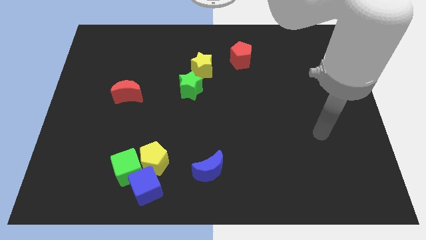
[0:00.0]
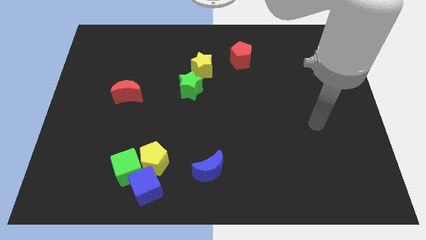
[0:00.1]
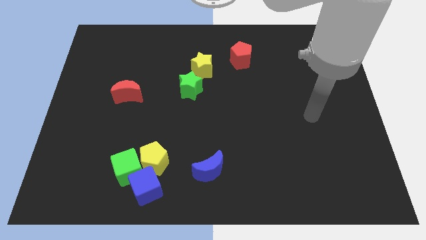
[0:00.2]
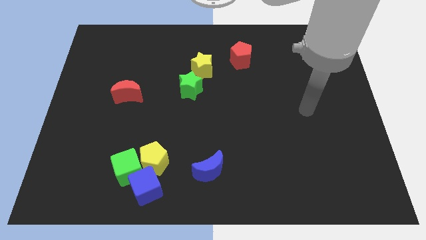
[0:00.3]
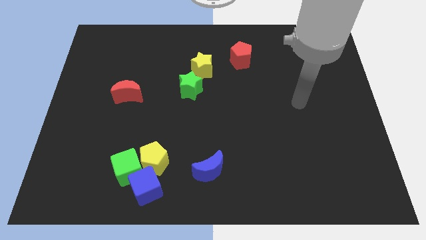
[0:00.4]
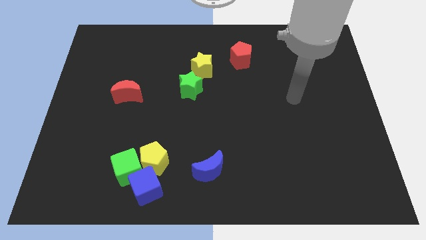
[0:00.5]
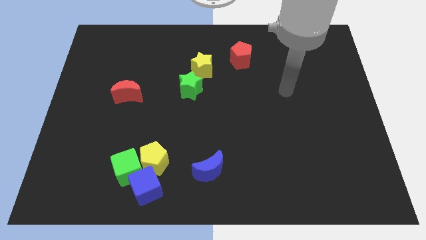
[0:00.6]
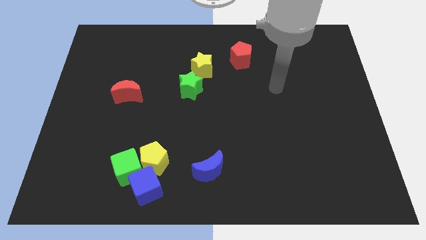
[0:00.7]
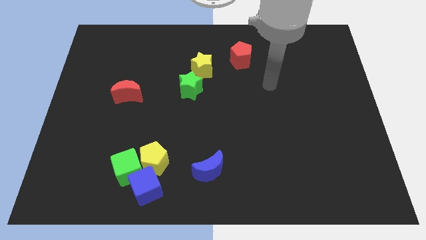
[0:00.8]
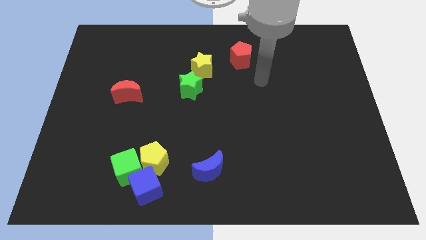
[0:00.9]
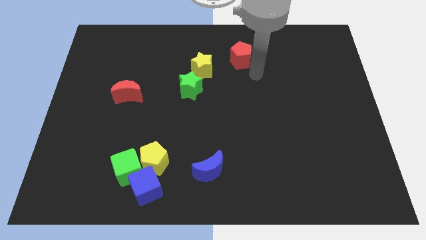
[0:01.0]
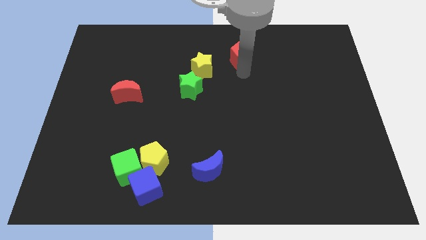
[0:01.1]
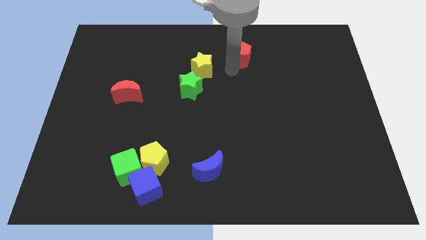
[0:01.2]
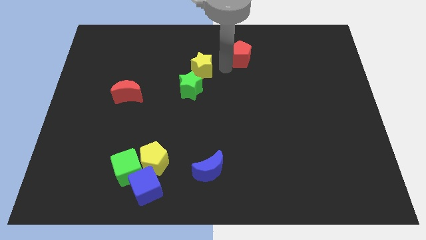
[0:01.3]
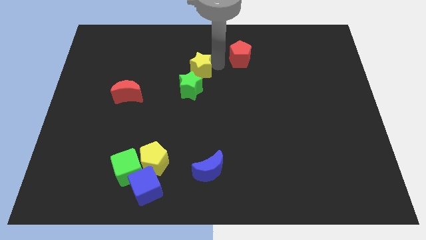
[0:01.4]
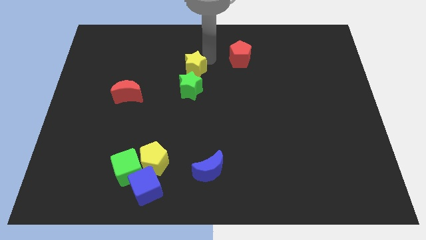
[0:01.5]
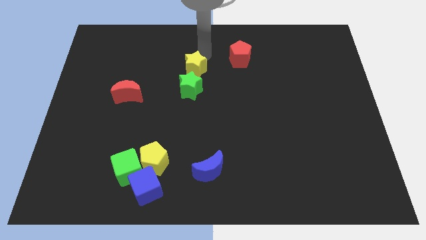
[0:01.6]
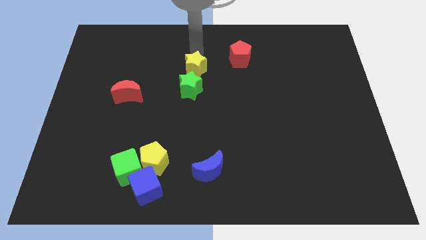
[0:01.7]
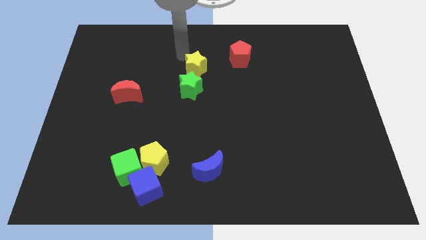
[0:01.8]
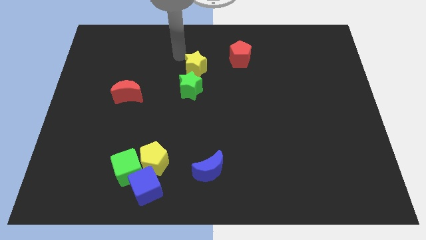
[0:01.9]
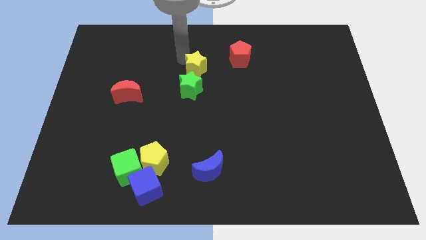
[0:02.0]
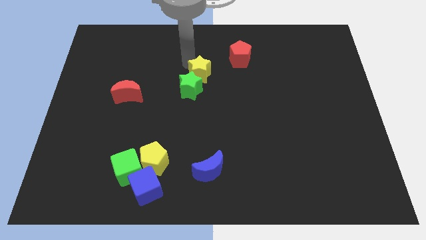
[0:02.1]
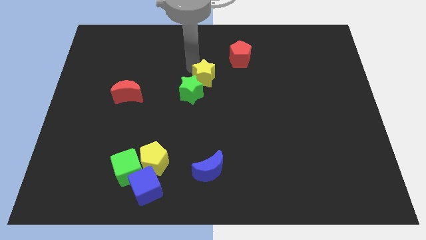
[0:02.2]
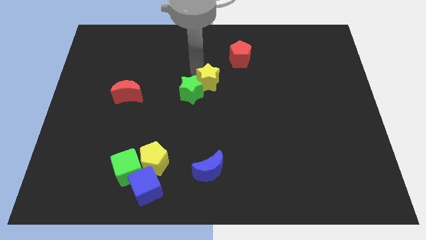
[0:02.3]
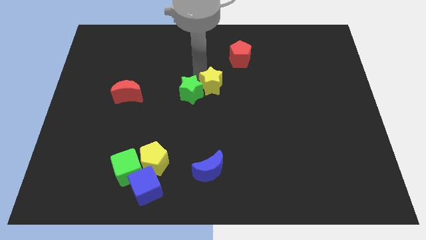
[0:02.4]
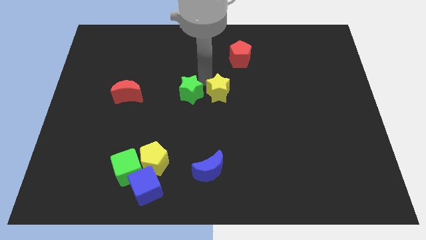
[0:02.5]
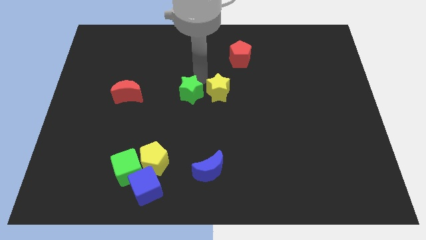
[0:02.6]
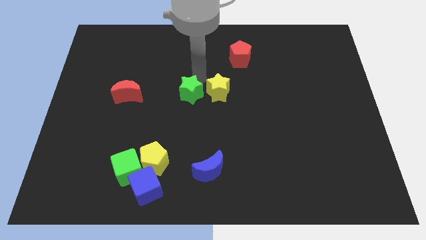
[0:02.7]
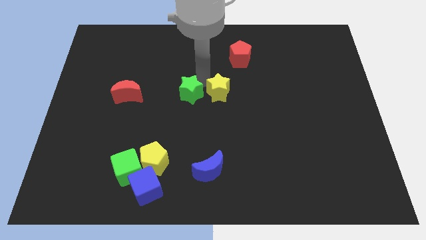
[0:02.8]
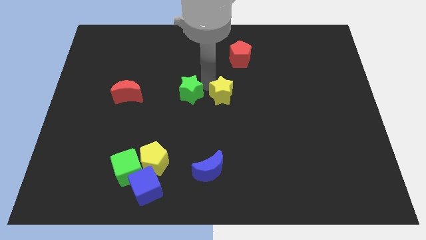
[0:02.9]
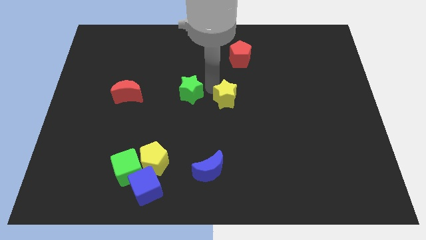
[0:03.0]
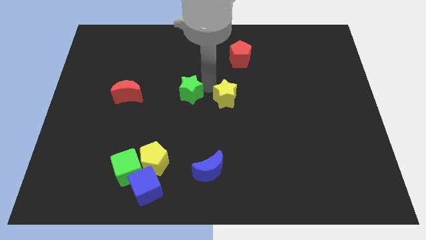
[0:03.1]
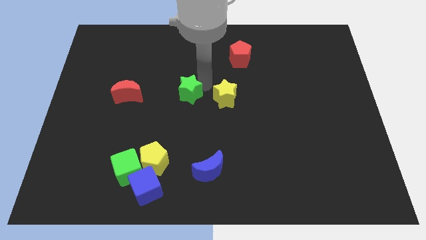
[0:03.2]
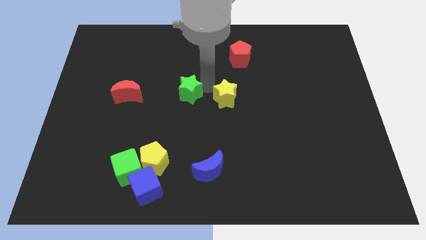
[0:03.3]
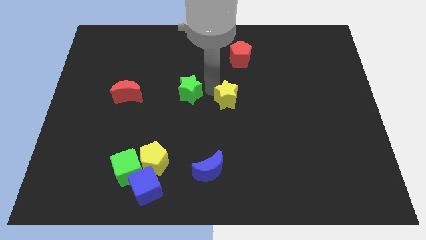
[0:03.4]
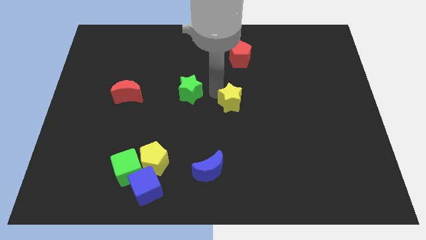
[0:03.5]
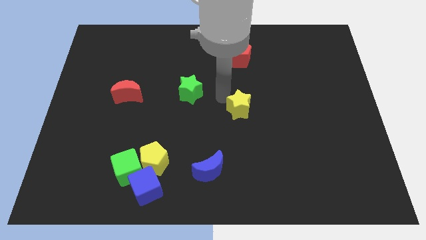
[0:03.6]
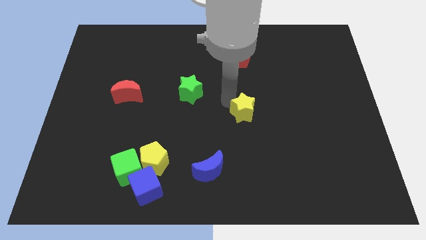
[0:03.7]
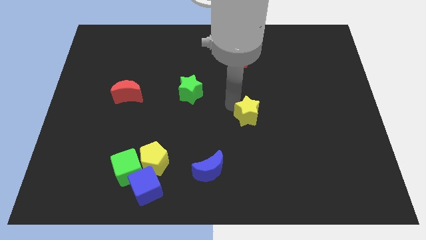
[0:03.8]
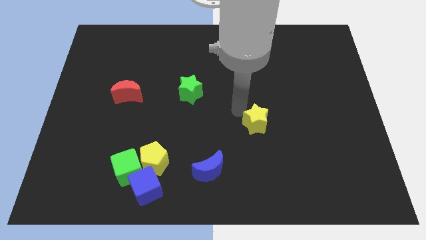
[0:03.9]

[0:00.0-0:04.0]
move the yellow star diagonally down and right

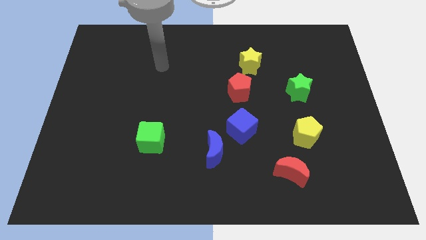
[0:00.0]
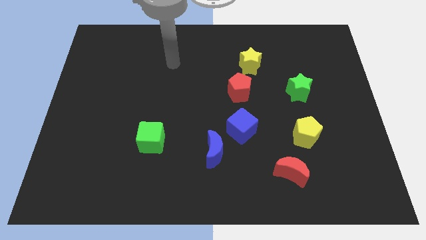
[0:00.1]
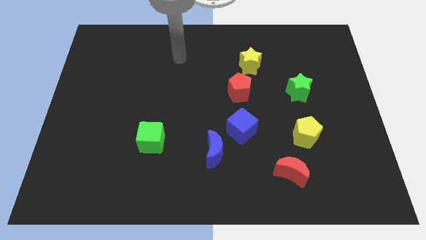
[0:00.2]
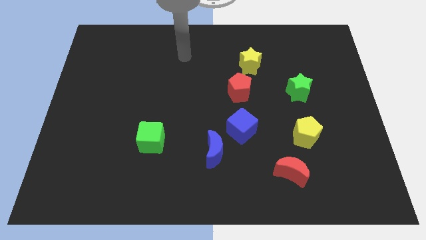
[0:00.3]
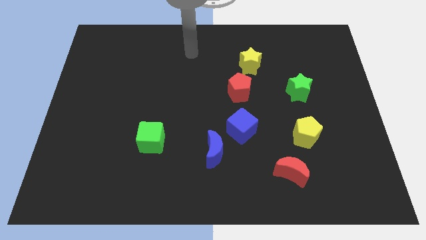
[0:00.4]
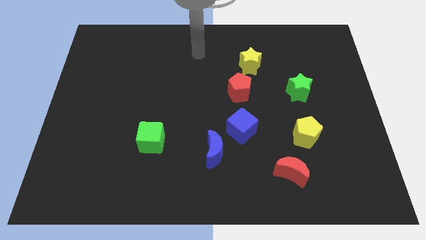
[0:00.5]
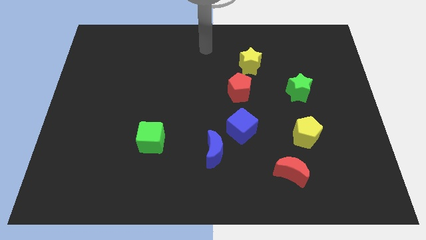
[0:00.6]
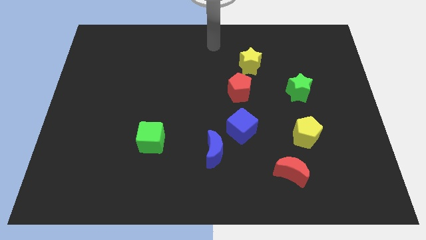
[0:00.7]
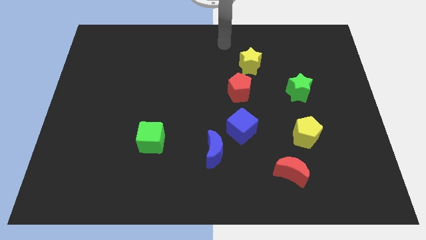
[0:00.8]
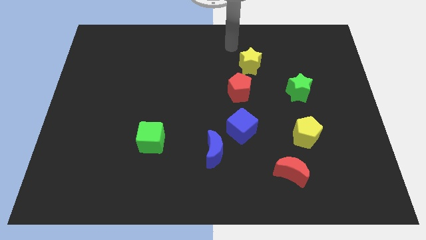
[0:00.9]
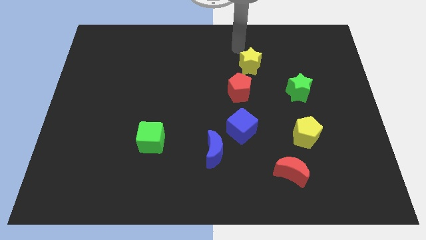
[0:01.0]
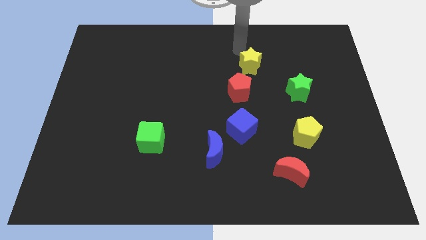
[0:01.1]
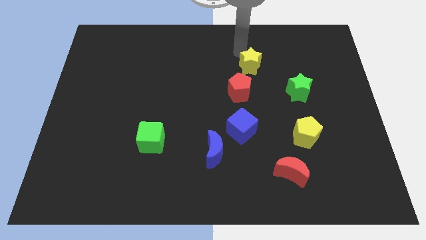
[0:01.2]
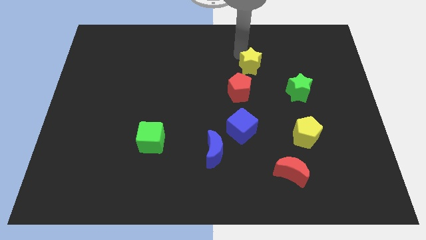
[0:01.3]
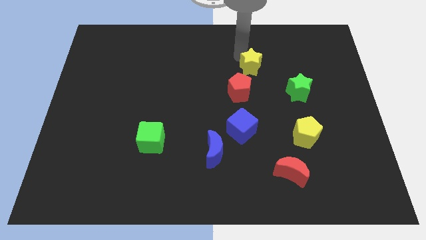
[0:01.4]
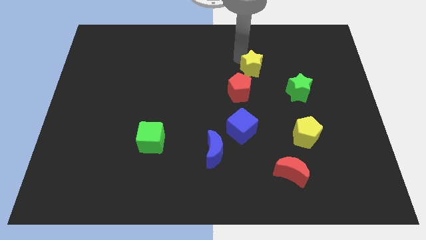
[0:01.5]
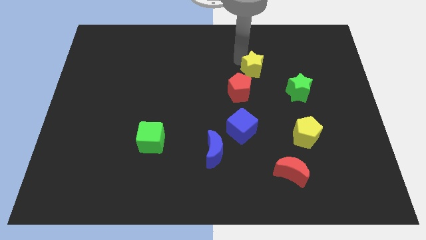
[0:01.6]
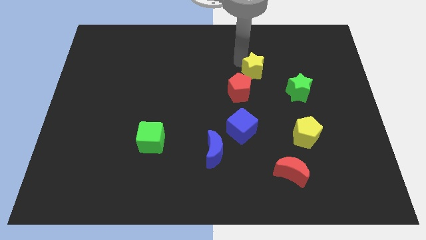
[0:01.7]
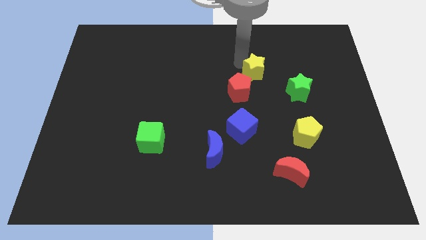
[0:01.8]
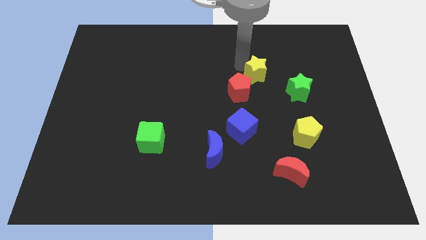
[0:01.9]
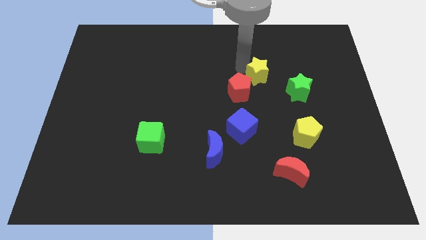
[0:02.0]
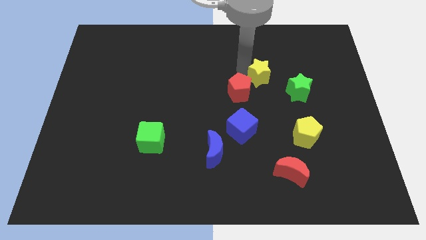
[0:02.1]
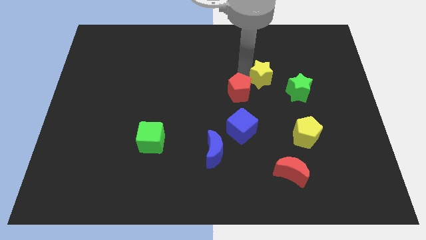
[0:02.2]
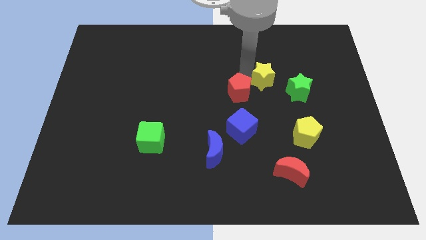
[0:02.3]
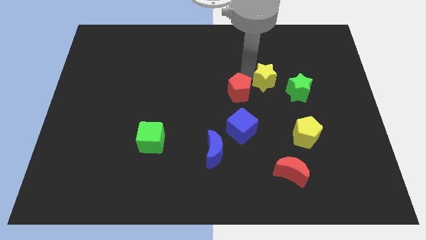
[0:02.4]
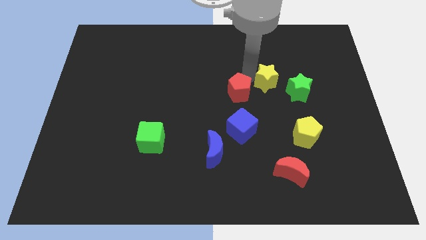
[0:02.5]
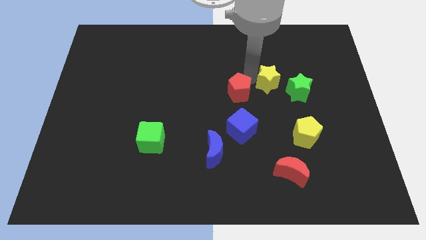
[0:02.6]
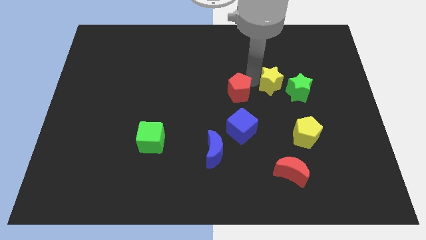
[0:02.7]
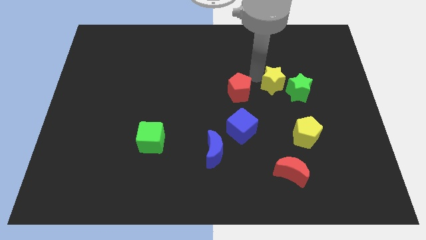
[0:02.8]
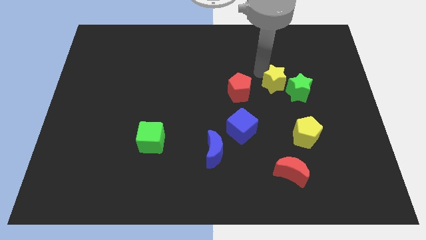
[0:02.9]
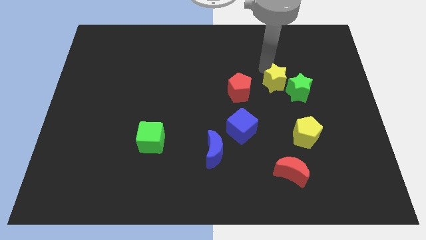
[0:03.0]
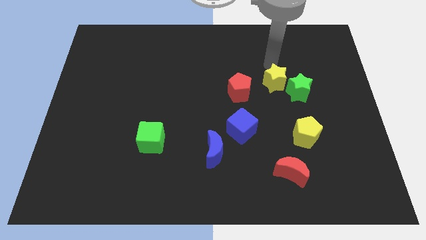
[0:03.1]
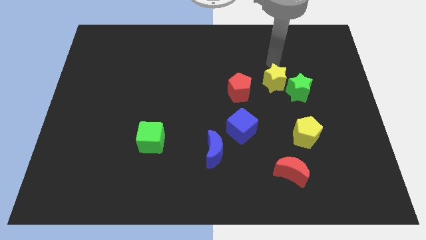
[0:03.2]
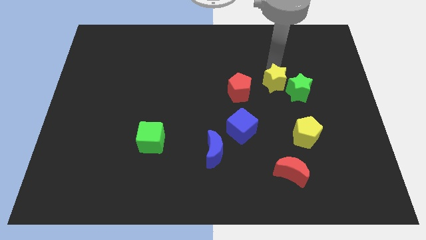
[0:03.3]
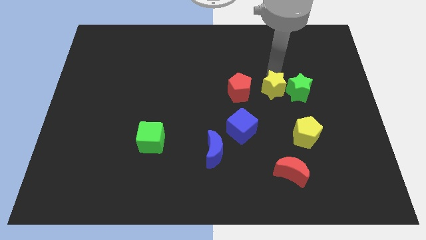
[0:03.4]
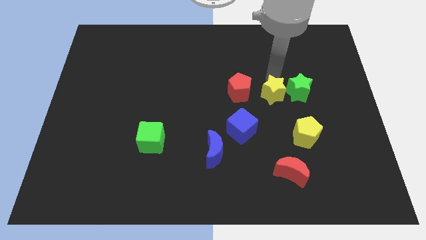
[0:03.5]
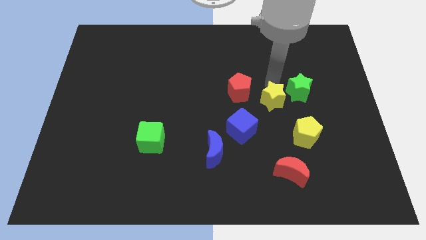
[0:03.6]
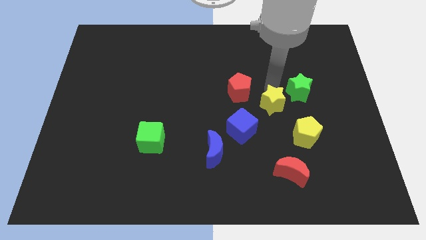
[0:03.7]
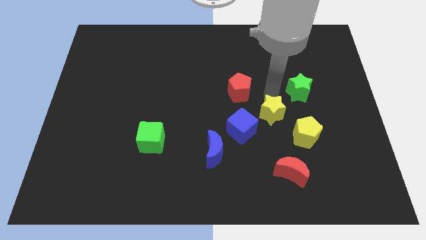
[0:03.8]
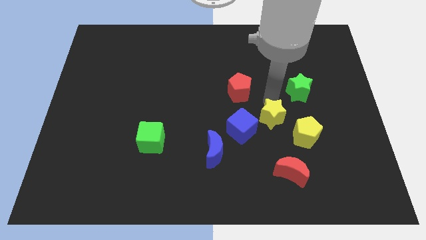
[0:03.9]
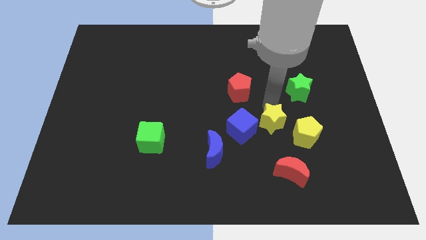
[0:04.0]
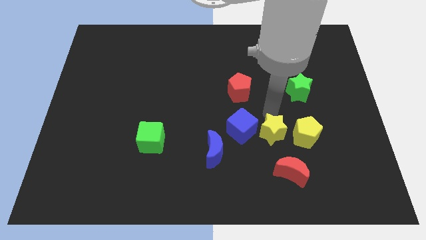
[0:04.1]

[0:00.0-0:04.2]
push the yellow star down
